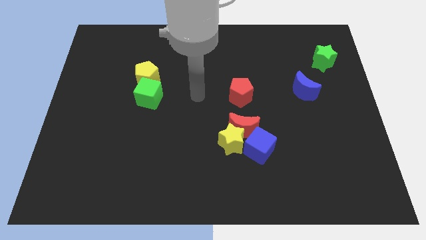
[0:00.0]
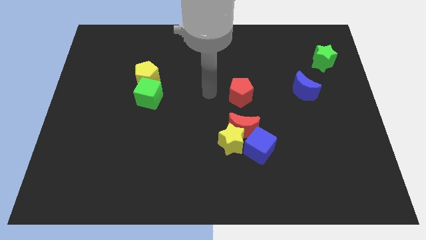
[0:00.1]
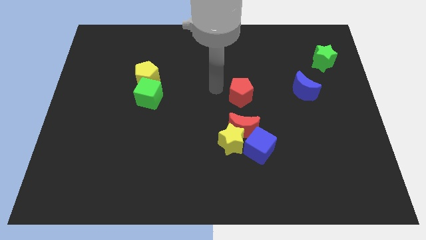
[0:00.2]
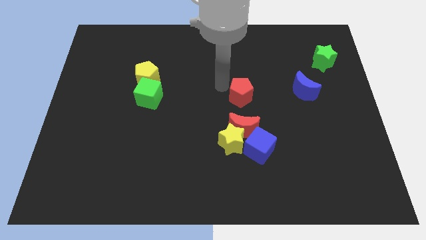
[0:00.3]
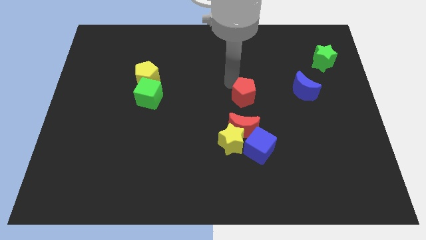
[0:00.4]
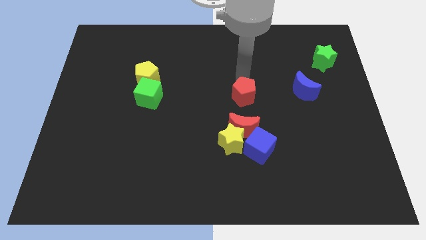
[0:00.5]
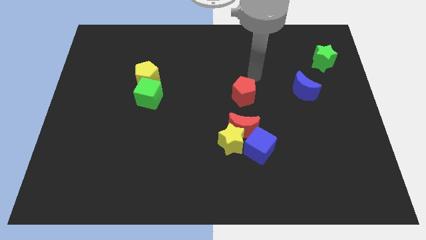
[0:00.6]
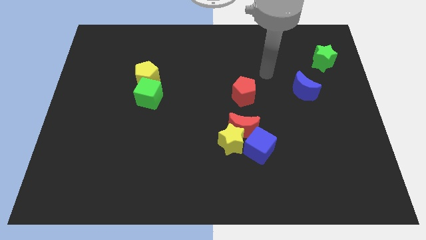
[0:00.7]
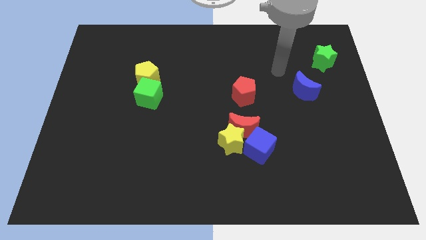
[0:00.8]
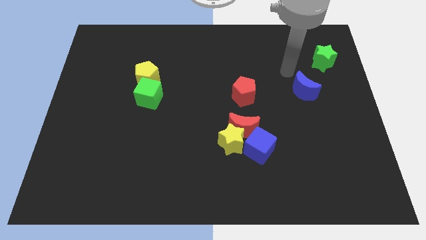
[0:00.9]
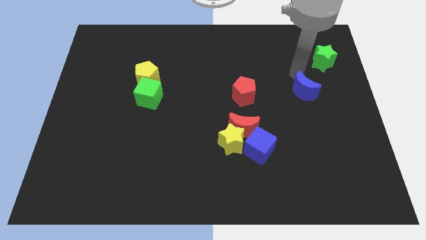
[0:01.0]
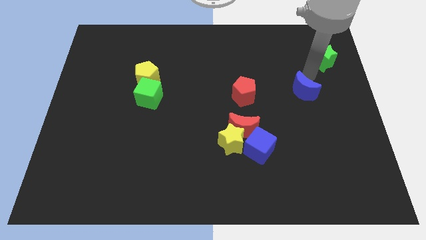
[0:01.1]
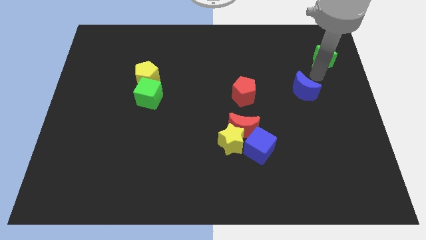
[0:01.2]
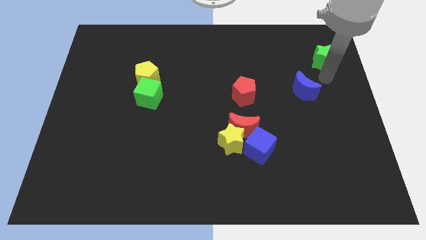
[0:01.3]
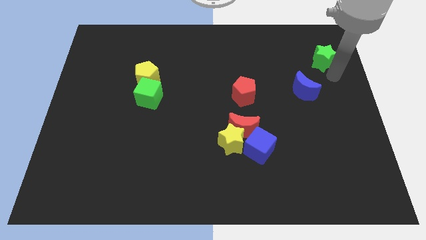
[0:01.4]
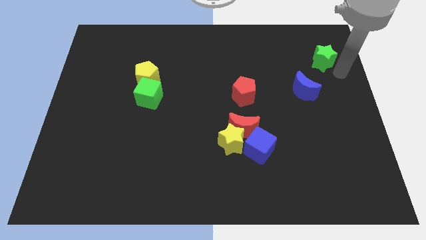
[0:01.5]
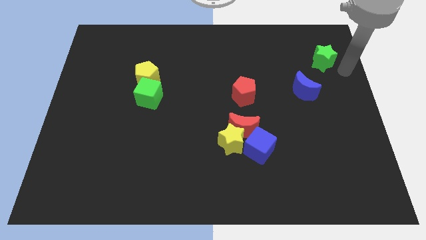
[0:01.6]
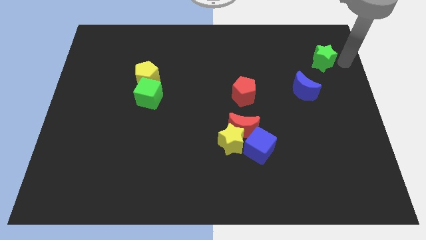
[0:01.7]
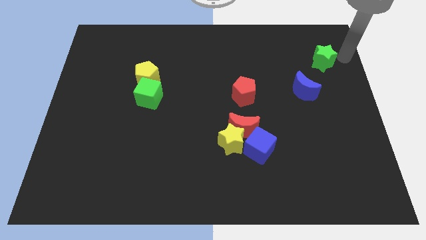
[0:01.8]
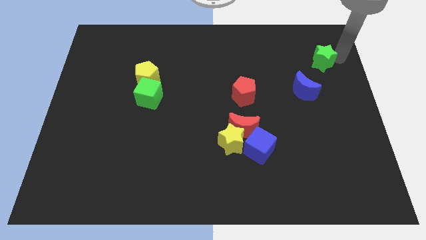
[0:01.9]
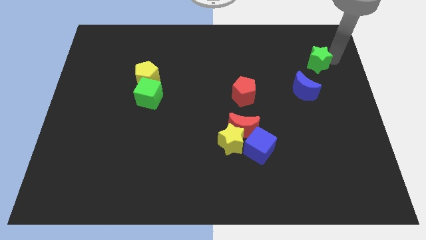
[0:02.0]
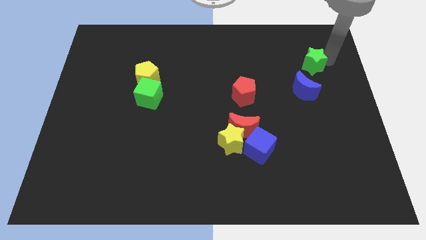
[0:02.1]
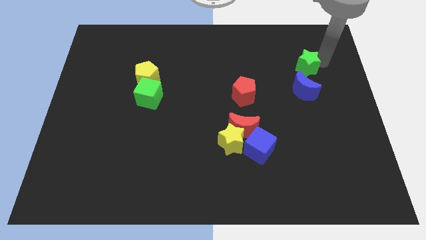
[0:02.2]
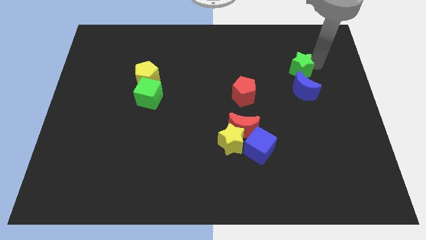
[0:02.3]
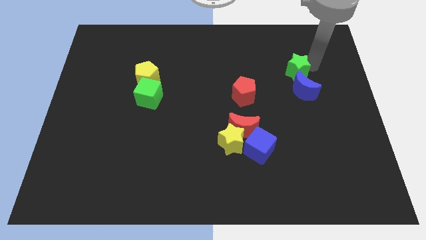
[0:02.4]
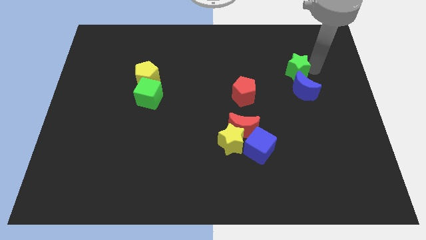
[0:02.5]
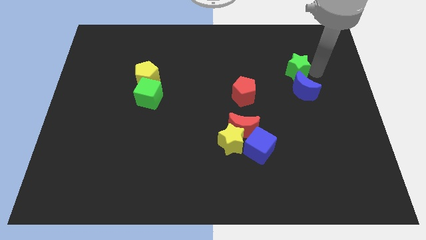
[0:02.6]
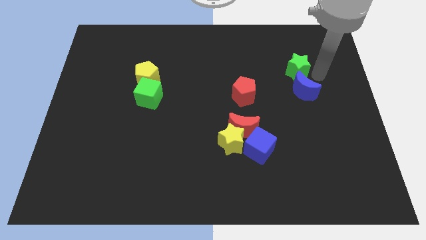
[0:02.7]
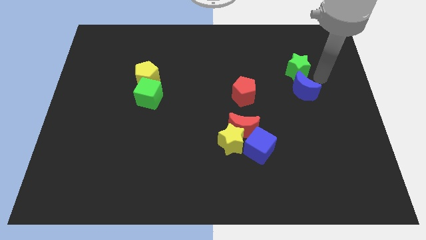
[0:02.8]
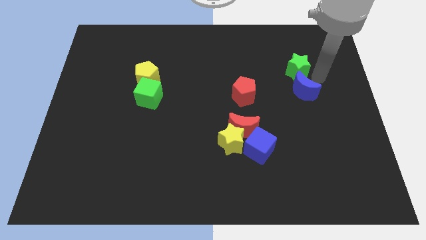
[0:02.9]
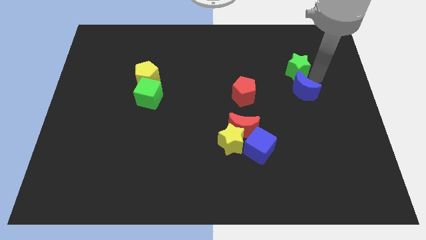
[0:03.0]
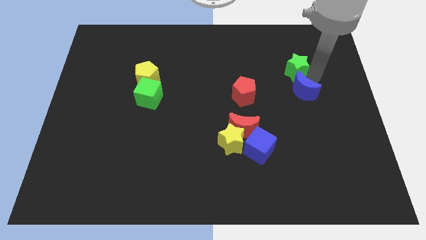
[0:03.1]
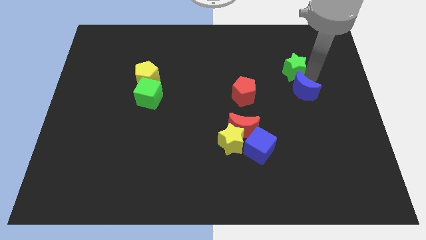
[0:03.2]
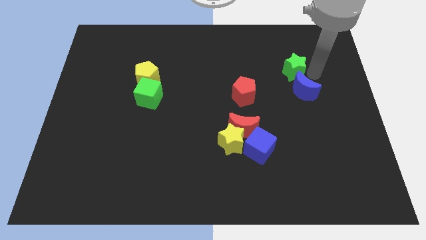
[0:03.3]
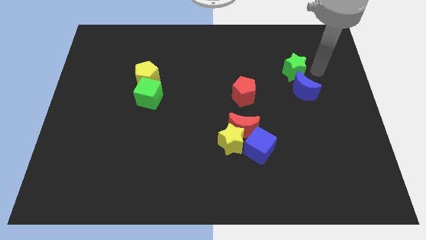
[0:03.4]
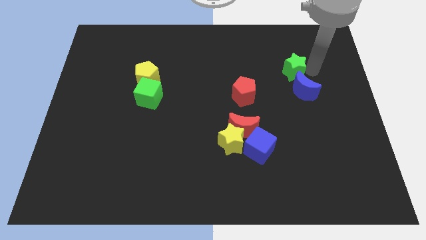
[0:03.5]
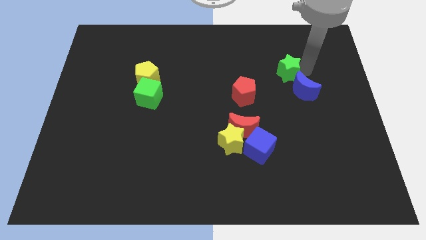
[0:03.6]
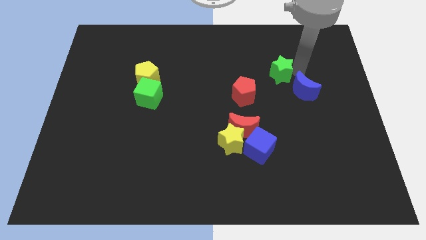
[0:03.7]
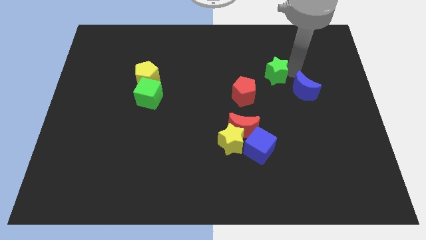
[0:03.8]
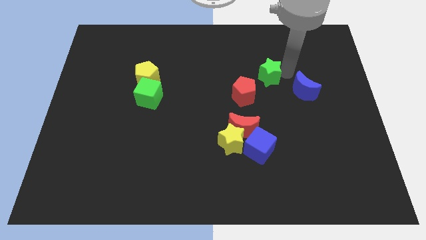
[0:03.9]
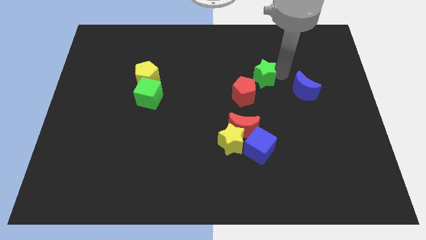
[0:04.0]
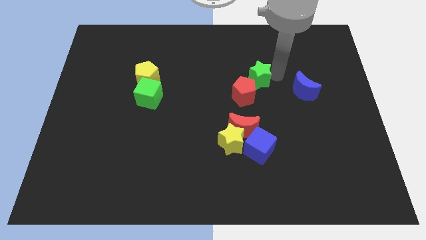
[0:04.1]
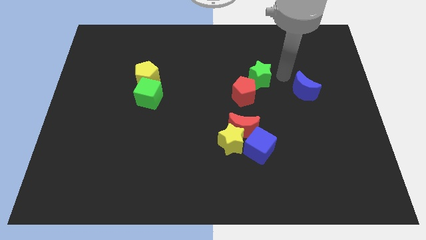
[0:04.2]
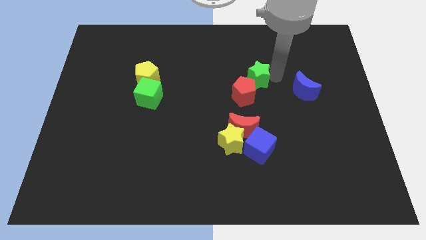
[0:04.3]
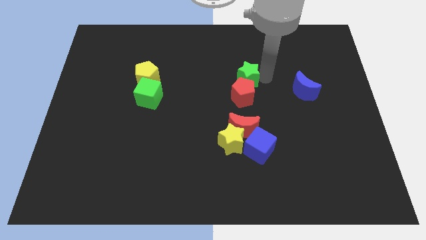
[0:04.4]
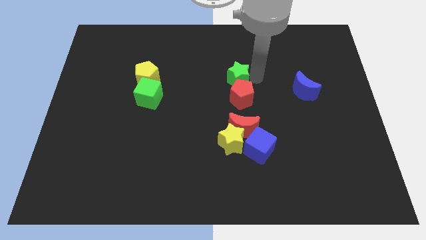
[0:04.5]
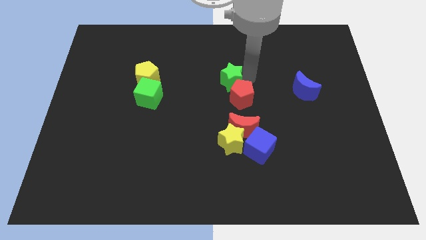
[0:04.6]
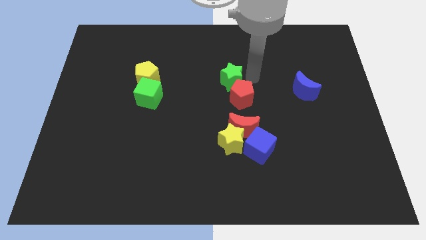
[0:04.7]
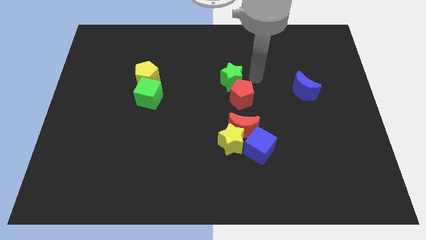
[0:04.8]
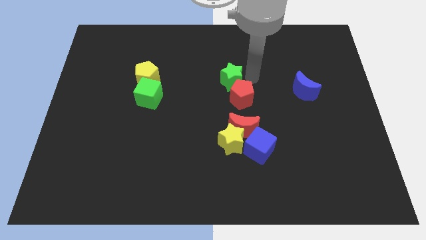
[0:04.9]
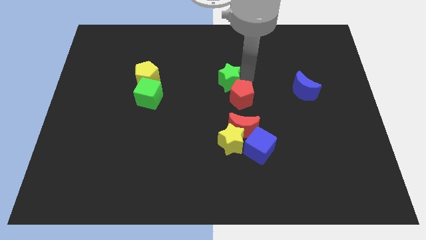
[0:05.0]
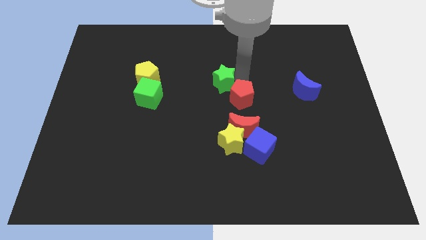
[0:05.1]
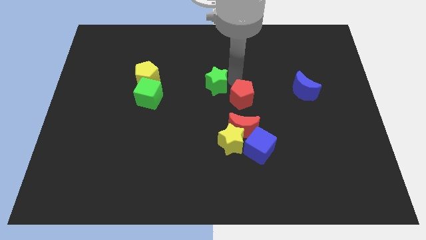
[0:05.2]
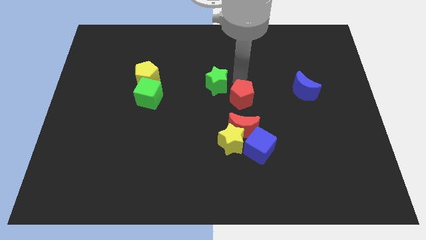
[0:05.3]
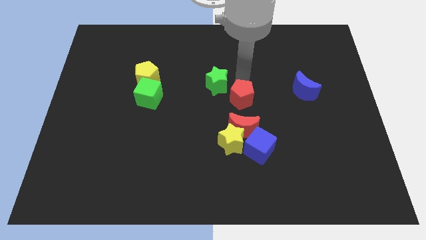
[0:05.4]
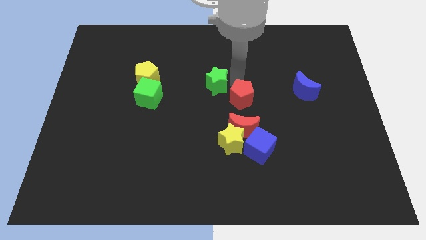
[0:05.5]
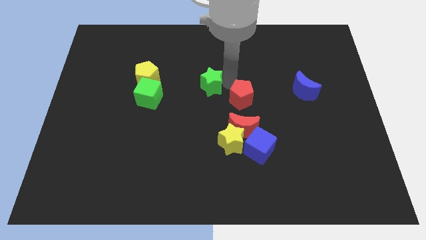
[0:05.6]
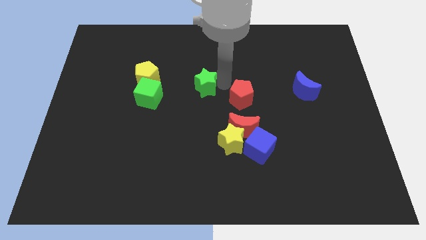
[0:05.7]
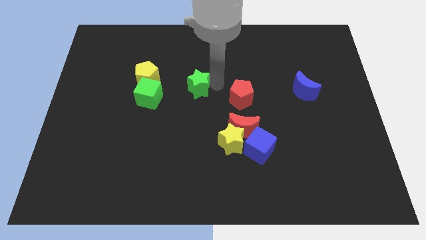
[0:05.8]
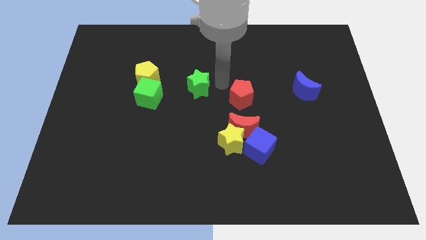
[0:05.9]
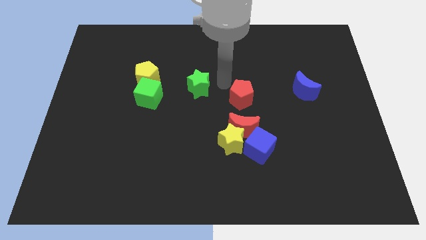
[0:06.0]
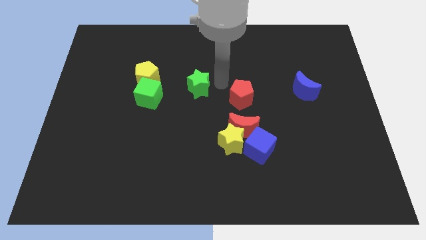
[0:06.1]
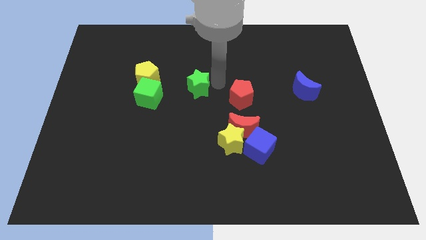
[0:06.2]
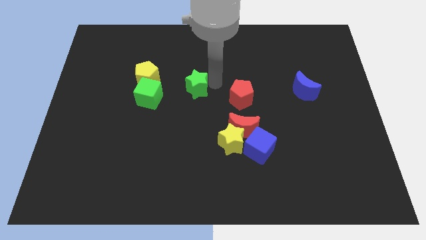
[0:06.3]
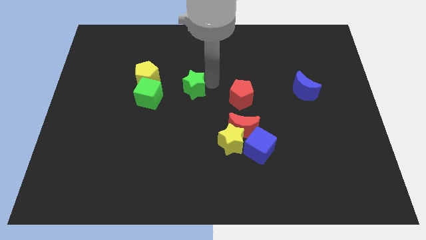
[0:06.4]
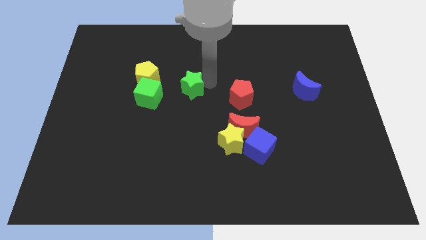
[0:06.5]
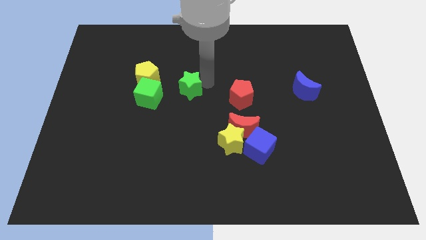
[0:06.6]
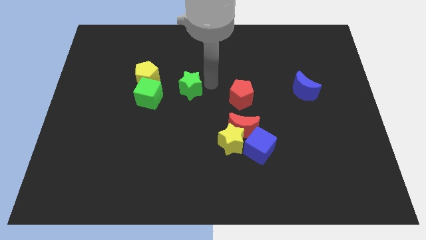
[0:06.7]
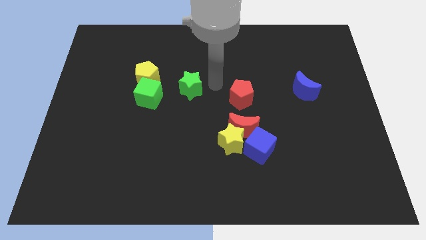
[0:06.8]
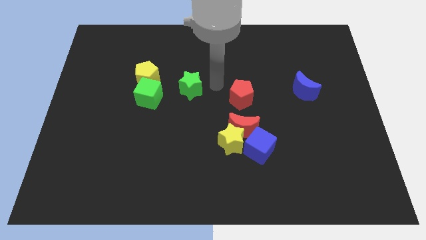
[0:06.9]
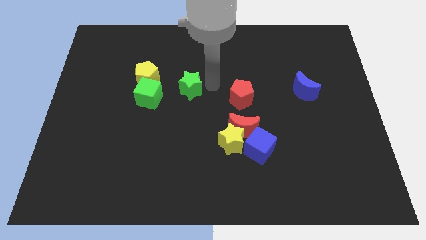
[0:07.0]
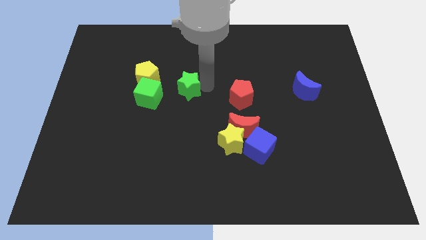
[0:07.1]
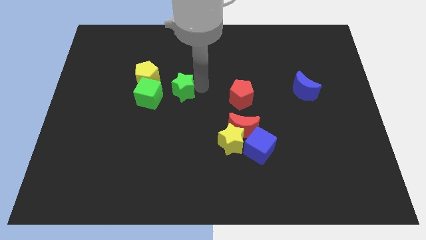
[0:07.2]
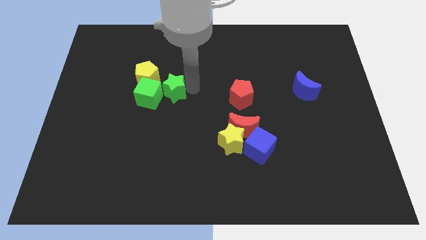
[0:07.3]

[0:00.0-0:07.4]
push the green star towards the green cube
